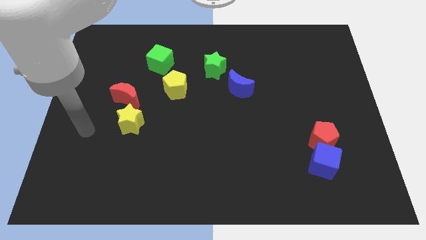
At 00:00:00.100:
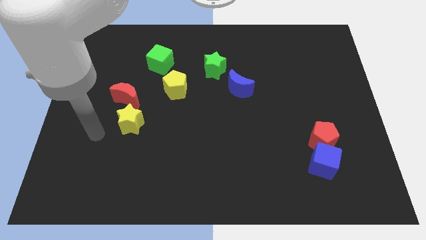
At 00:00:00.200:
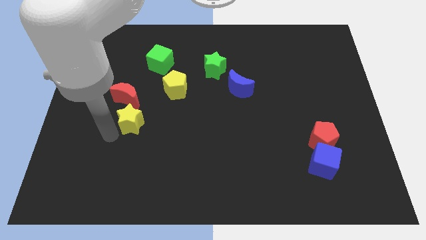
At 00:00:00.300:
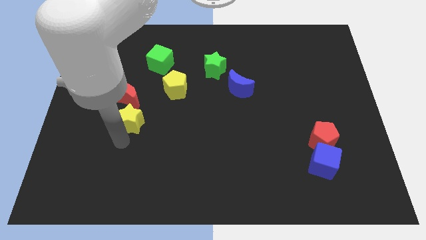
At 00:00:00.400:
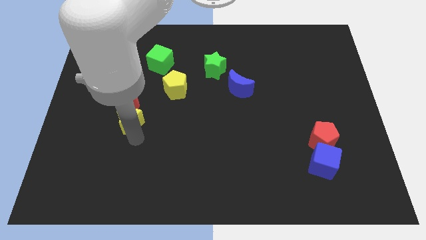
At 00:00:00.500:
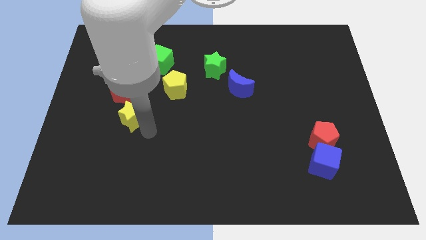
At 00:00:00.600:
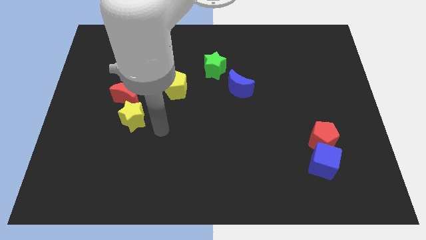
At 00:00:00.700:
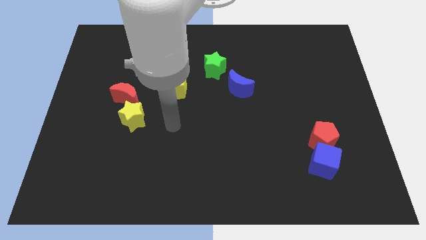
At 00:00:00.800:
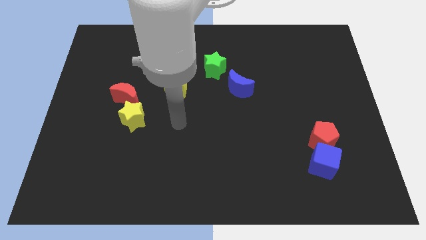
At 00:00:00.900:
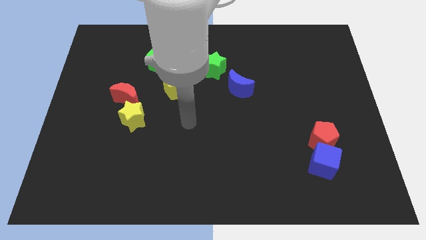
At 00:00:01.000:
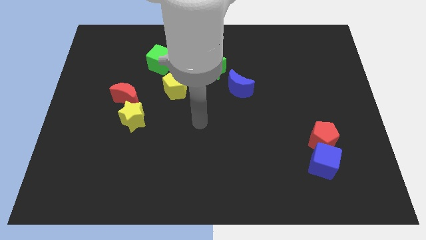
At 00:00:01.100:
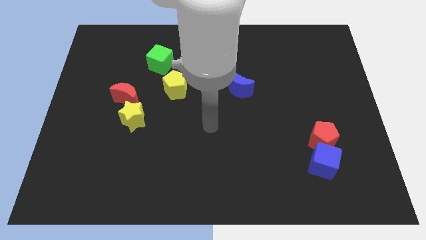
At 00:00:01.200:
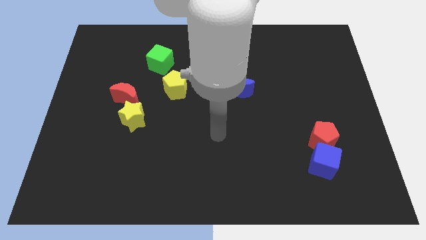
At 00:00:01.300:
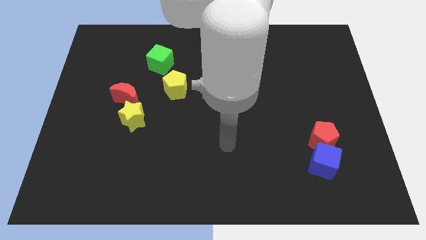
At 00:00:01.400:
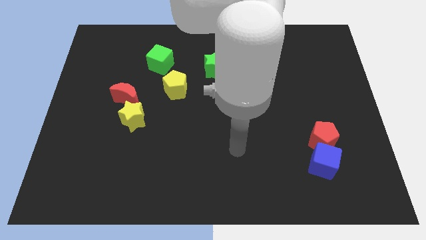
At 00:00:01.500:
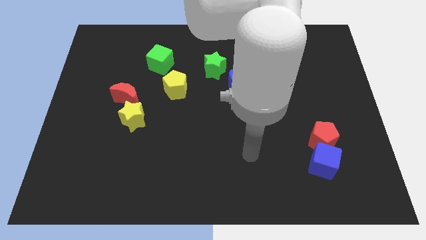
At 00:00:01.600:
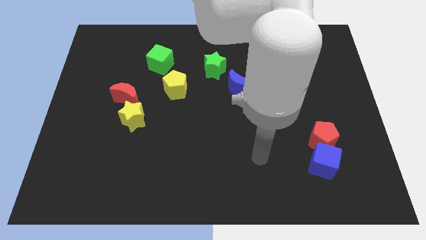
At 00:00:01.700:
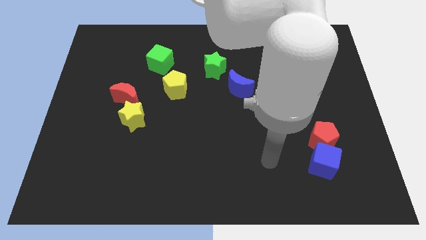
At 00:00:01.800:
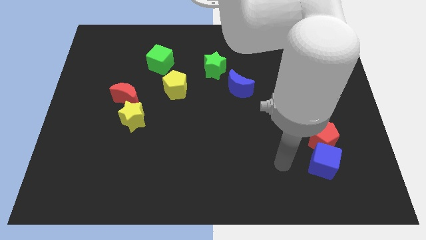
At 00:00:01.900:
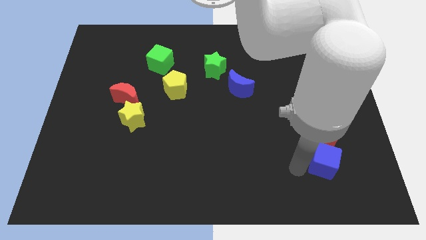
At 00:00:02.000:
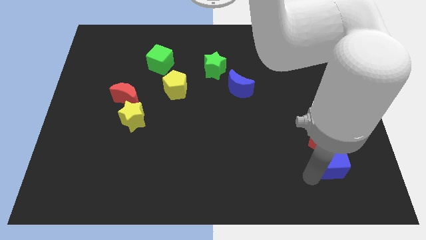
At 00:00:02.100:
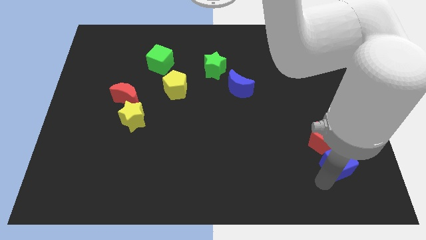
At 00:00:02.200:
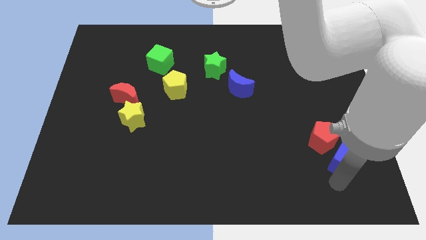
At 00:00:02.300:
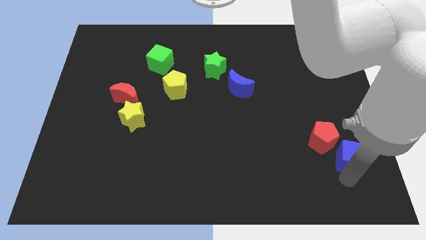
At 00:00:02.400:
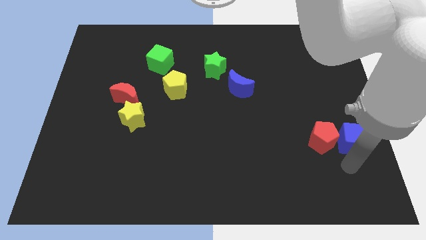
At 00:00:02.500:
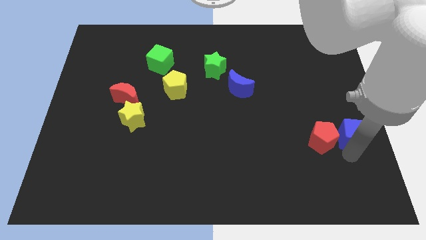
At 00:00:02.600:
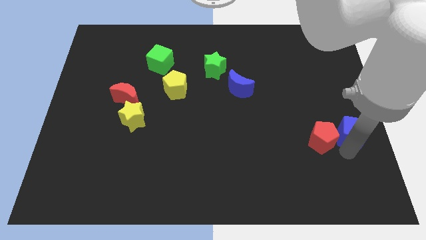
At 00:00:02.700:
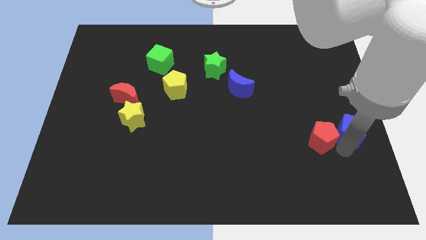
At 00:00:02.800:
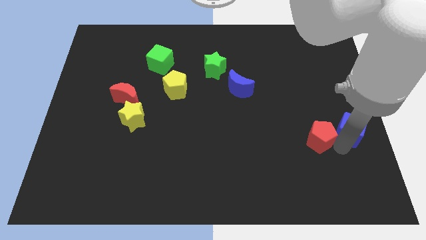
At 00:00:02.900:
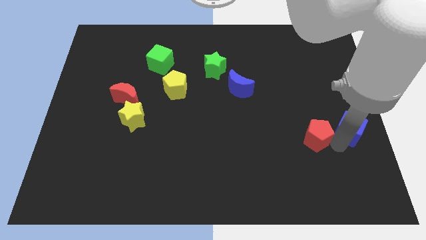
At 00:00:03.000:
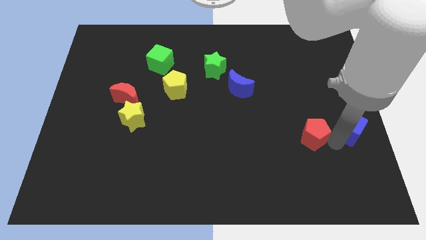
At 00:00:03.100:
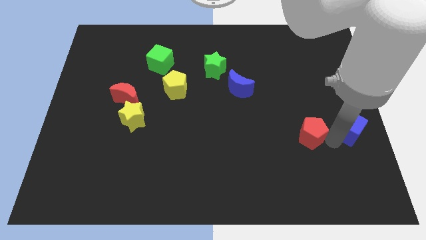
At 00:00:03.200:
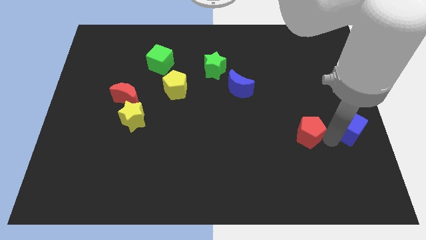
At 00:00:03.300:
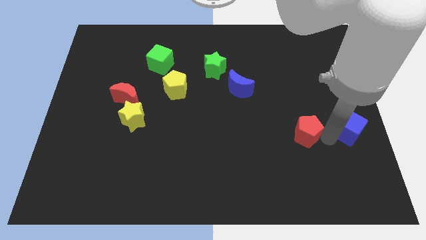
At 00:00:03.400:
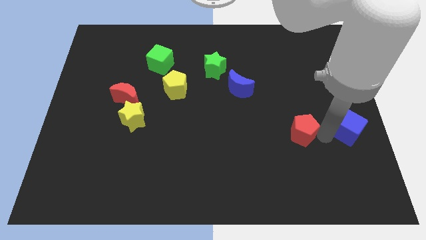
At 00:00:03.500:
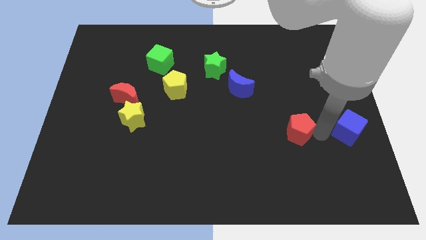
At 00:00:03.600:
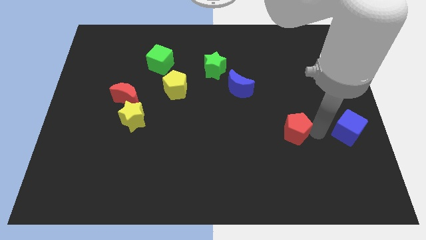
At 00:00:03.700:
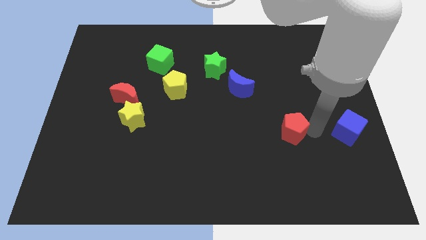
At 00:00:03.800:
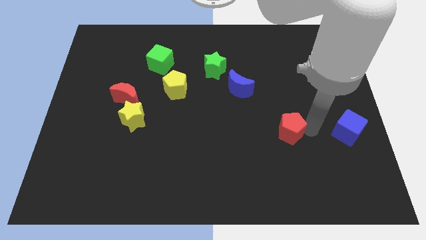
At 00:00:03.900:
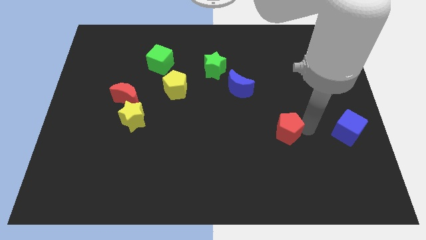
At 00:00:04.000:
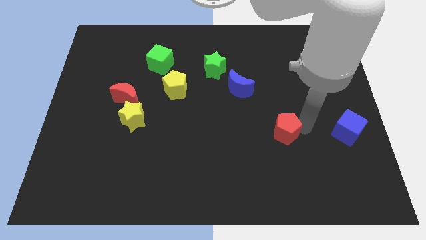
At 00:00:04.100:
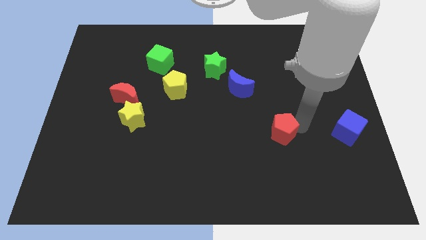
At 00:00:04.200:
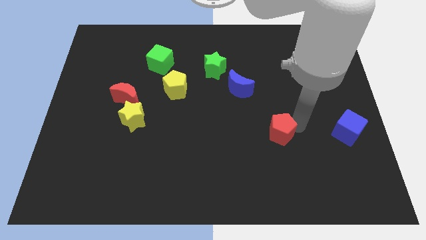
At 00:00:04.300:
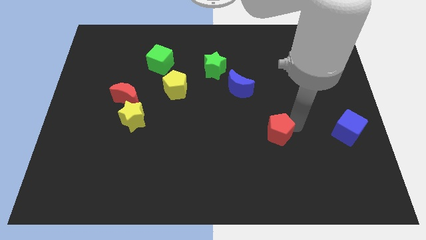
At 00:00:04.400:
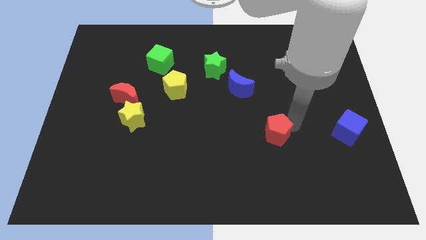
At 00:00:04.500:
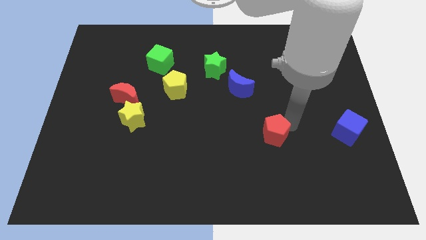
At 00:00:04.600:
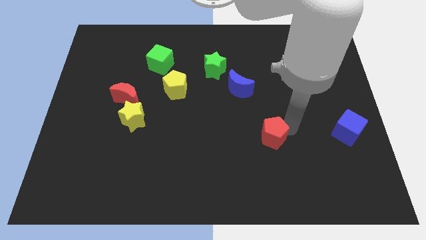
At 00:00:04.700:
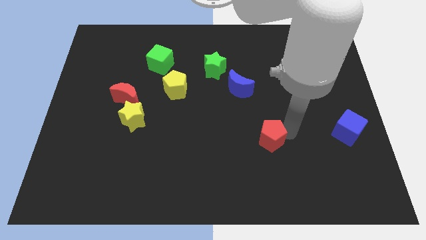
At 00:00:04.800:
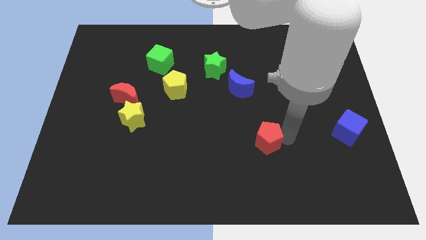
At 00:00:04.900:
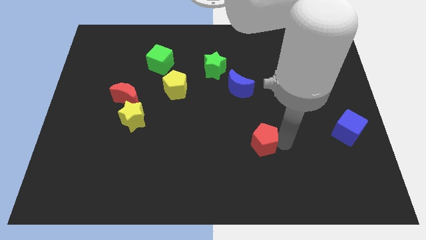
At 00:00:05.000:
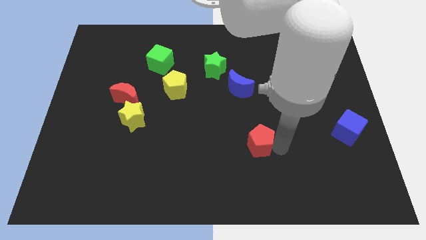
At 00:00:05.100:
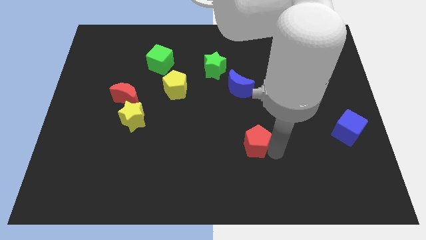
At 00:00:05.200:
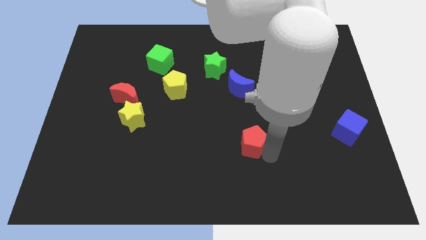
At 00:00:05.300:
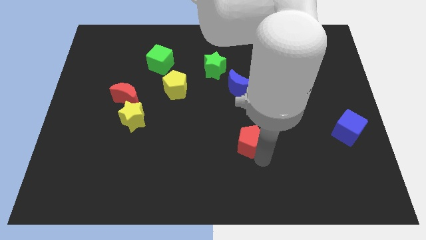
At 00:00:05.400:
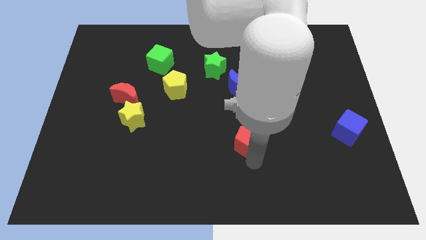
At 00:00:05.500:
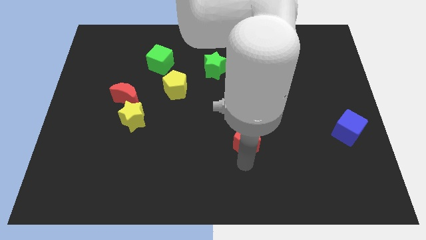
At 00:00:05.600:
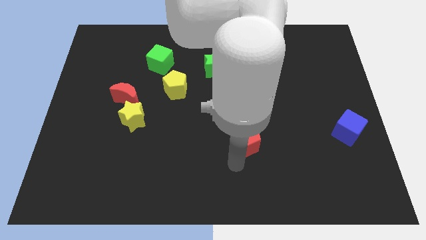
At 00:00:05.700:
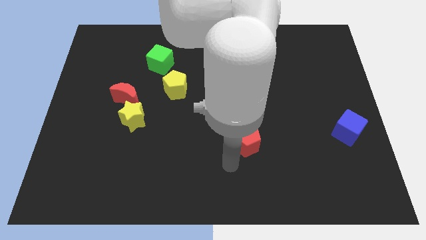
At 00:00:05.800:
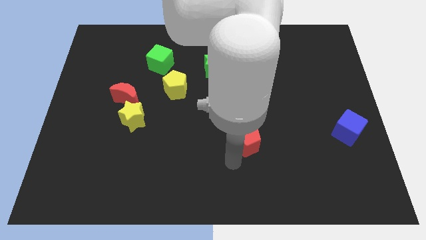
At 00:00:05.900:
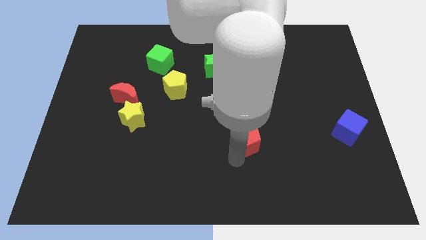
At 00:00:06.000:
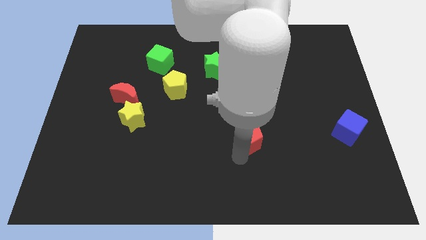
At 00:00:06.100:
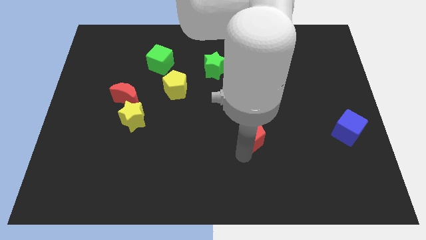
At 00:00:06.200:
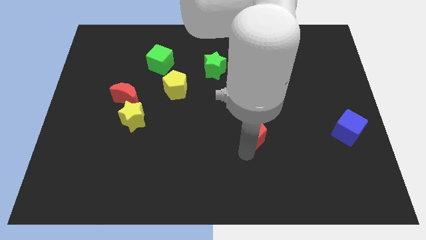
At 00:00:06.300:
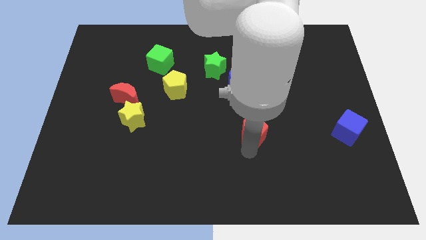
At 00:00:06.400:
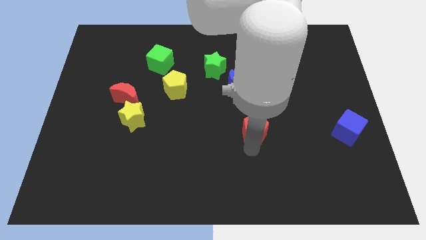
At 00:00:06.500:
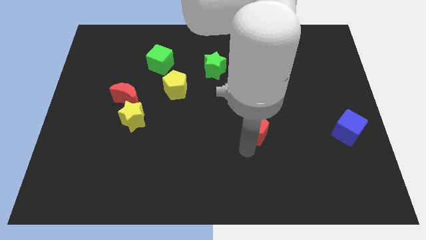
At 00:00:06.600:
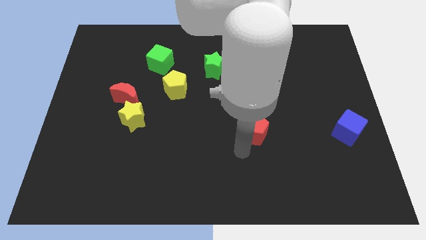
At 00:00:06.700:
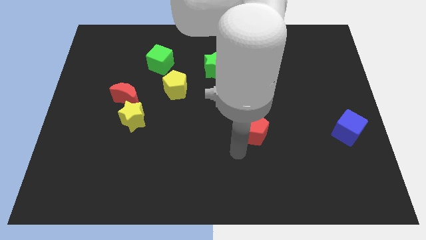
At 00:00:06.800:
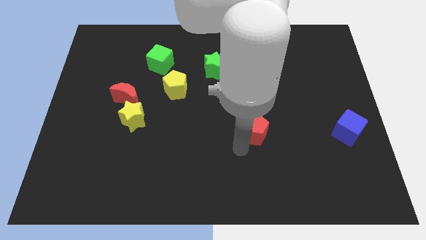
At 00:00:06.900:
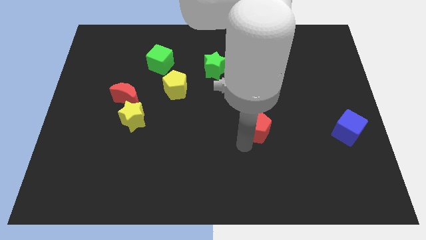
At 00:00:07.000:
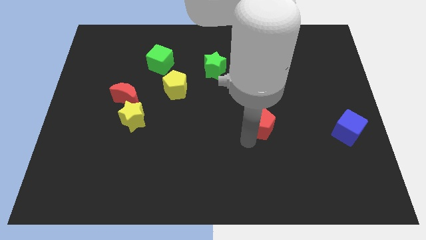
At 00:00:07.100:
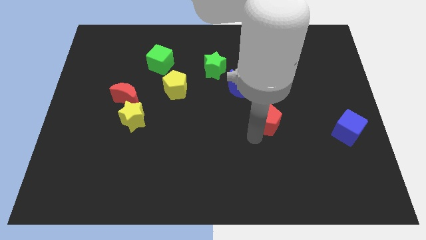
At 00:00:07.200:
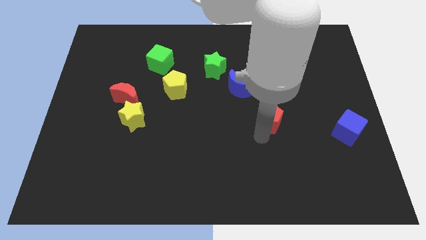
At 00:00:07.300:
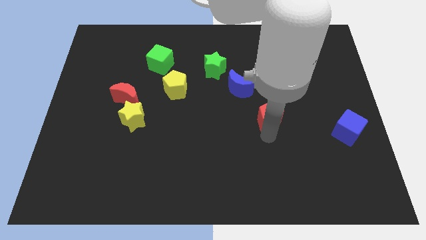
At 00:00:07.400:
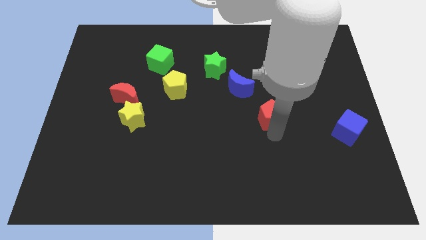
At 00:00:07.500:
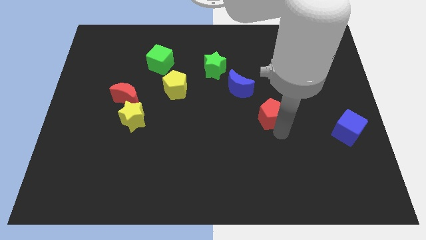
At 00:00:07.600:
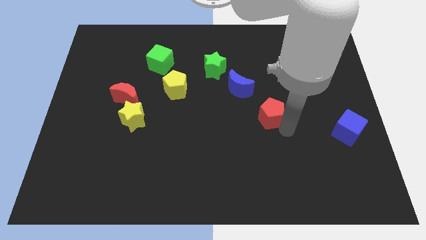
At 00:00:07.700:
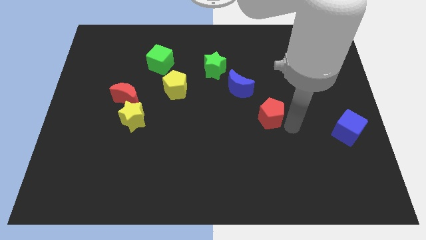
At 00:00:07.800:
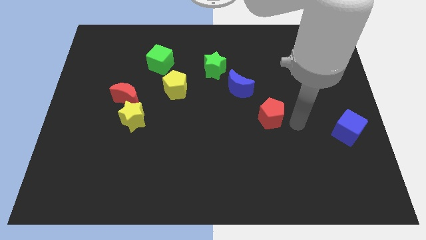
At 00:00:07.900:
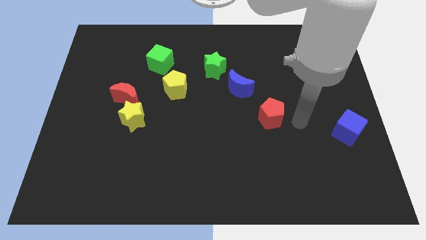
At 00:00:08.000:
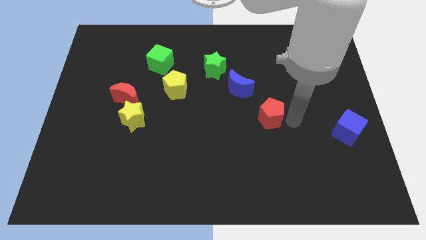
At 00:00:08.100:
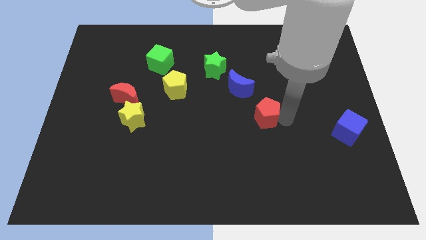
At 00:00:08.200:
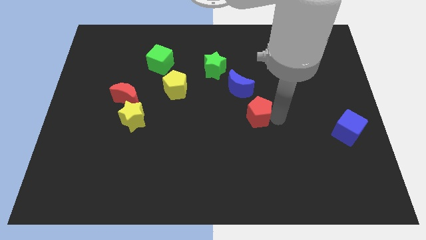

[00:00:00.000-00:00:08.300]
put the red pentagon to the middle
